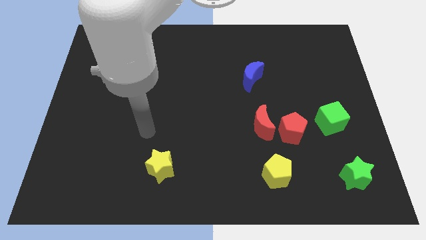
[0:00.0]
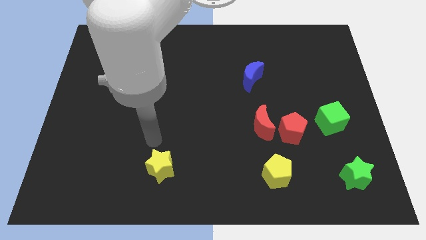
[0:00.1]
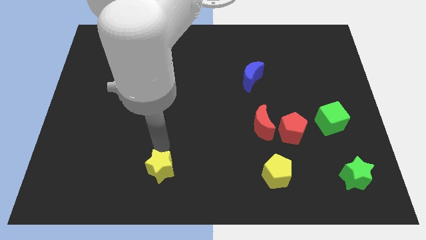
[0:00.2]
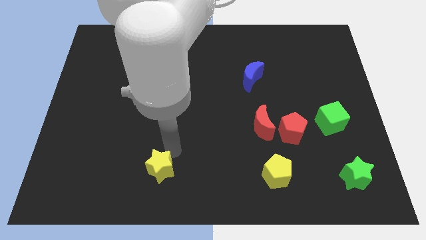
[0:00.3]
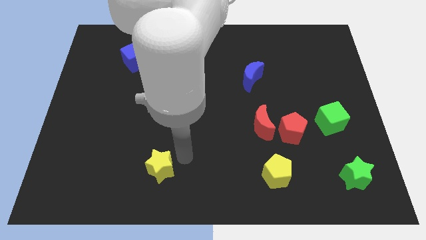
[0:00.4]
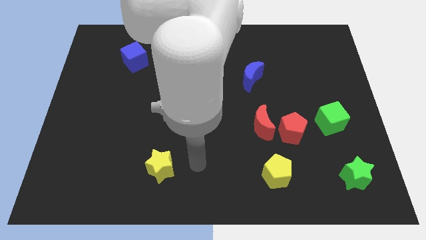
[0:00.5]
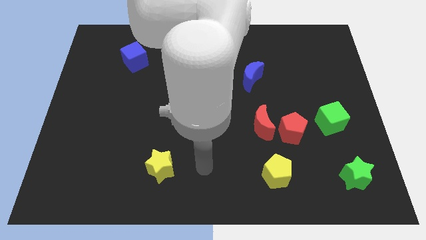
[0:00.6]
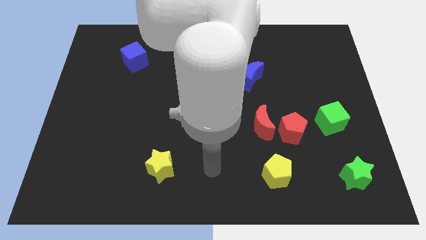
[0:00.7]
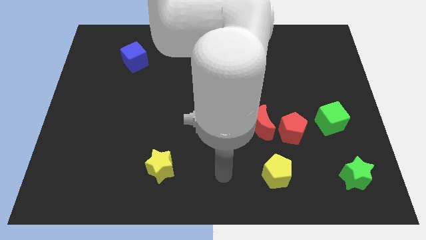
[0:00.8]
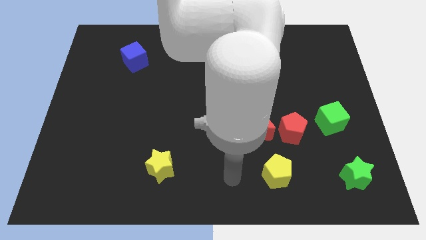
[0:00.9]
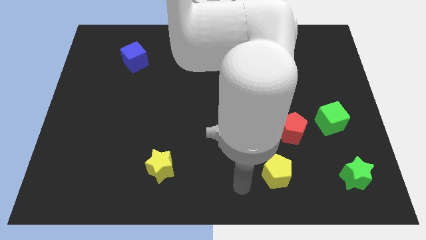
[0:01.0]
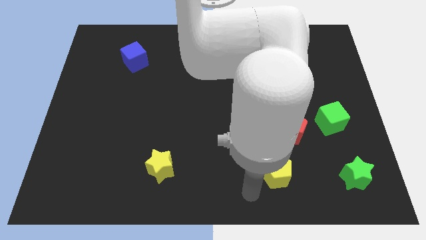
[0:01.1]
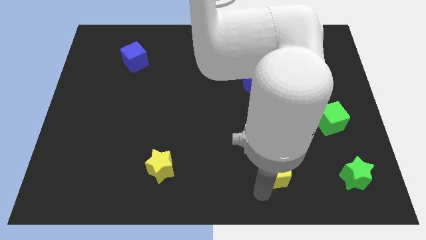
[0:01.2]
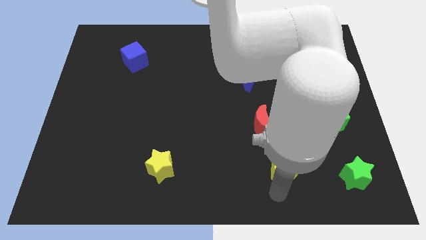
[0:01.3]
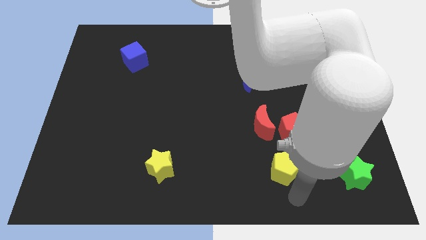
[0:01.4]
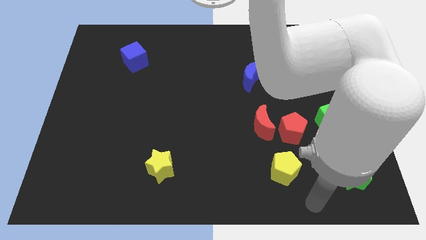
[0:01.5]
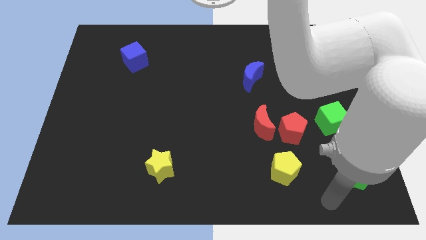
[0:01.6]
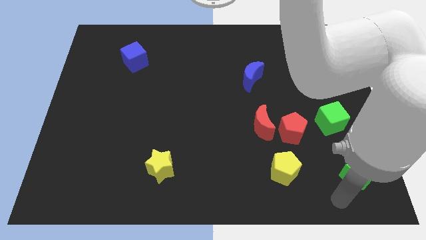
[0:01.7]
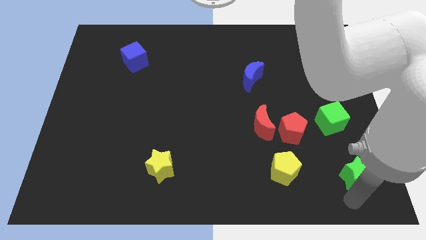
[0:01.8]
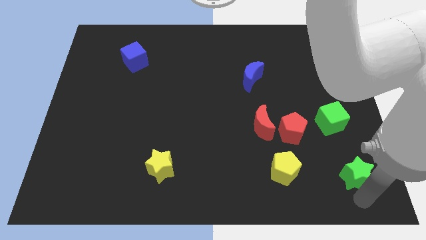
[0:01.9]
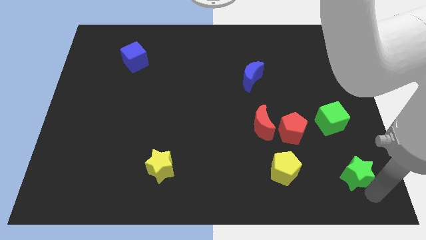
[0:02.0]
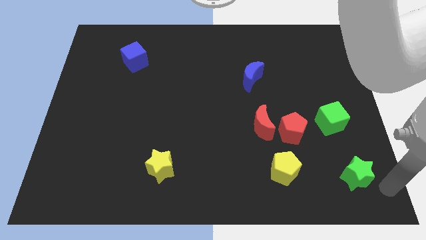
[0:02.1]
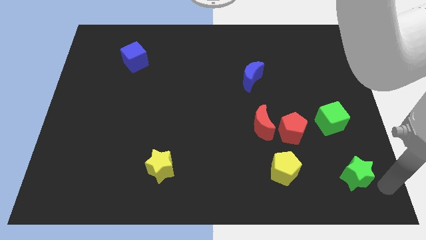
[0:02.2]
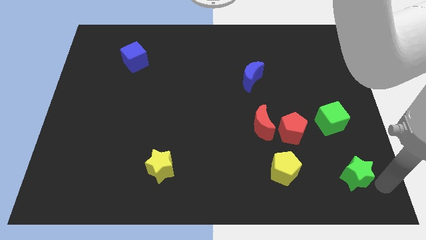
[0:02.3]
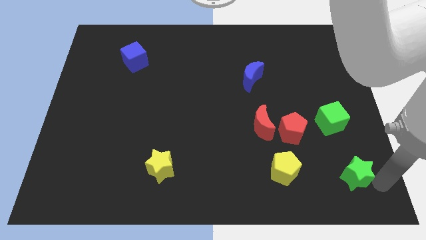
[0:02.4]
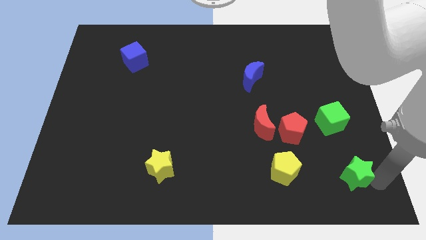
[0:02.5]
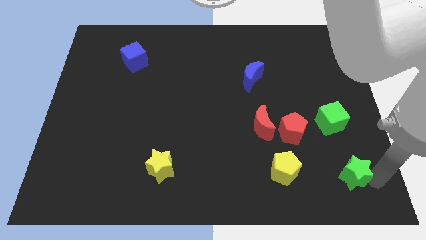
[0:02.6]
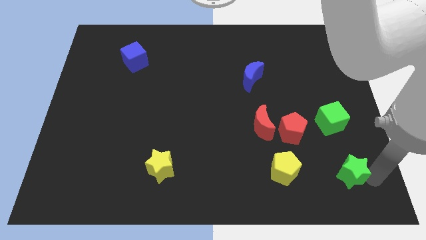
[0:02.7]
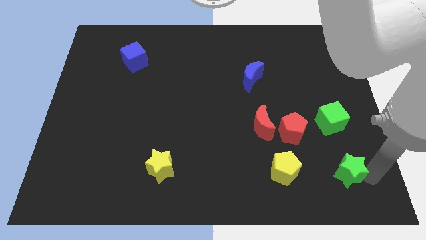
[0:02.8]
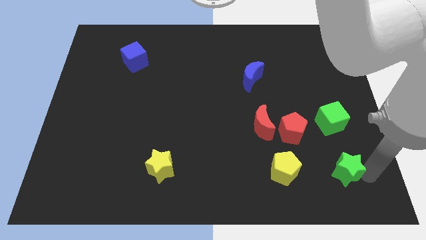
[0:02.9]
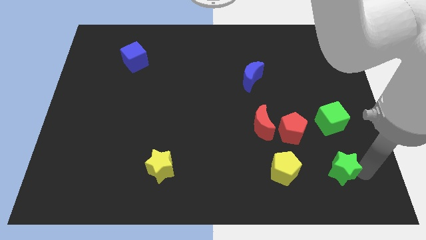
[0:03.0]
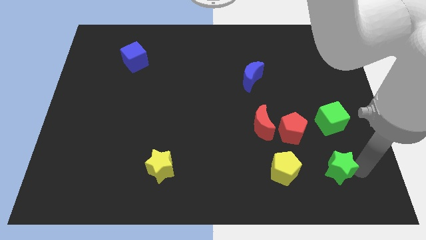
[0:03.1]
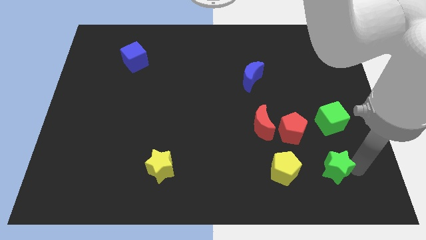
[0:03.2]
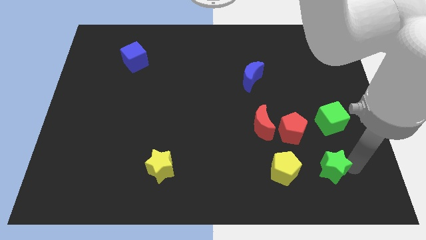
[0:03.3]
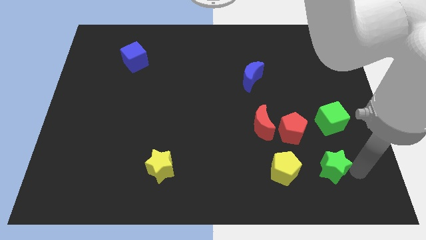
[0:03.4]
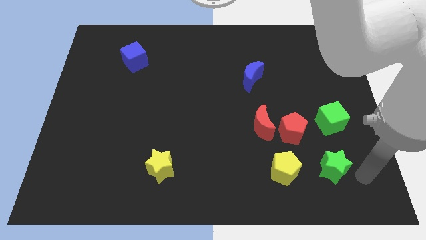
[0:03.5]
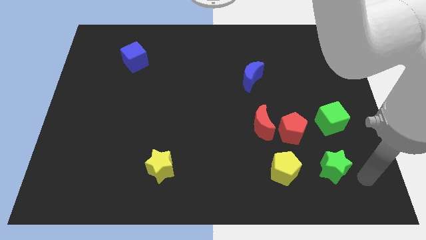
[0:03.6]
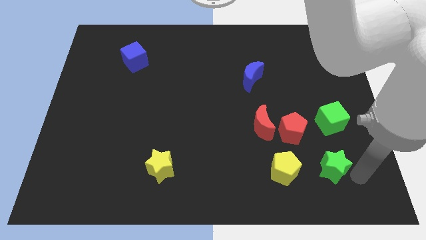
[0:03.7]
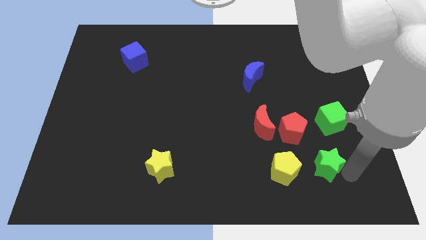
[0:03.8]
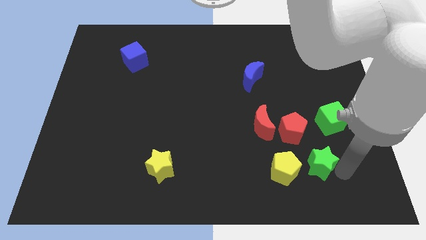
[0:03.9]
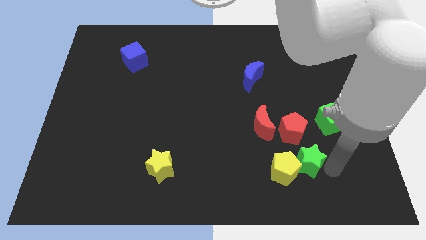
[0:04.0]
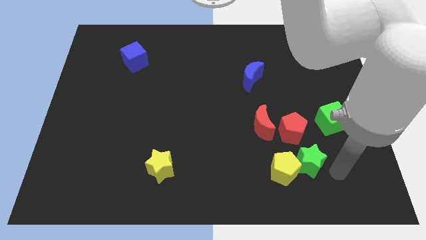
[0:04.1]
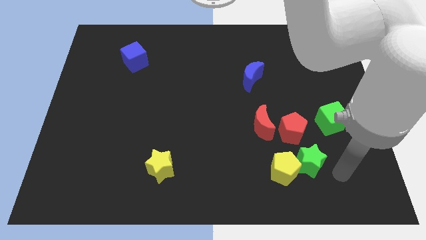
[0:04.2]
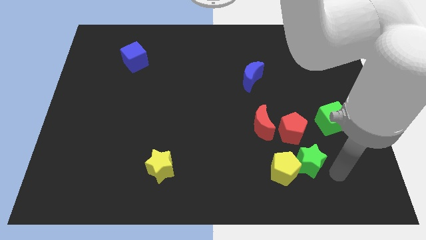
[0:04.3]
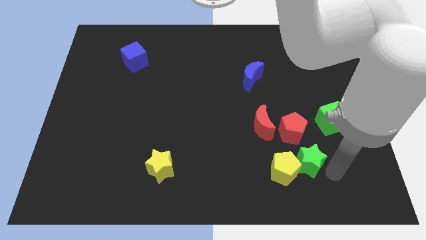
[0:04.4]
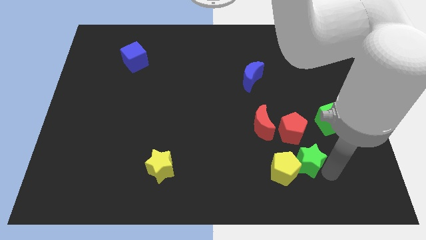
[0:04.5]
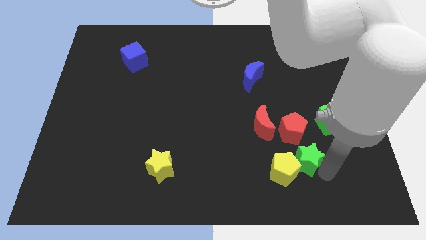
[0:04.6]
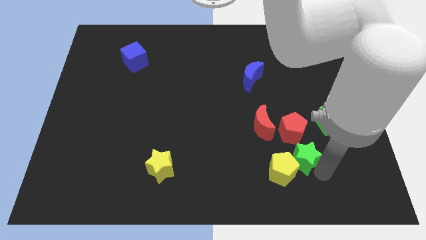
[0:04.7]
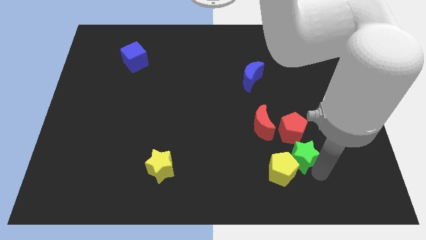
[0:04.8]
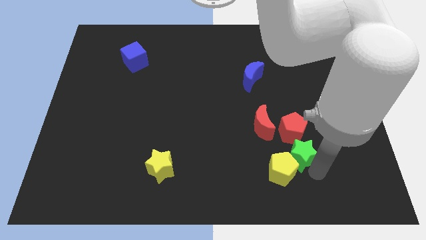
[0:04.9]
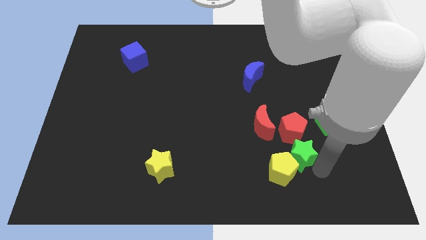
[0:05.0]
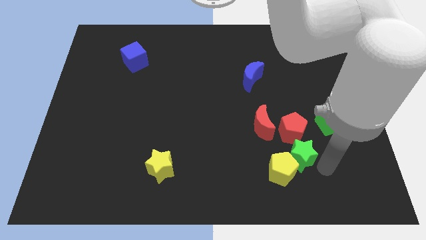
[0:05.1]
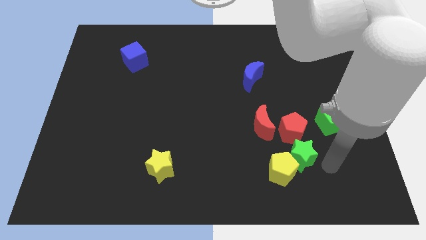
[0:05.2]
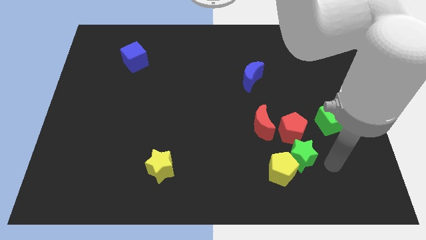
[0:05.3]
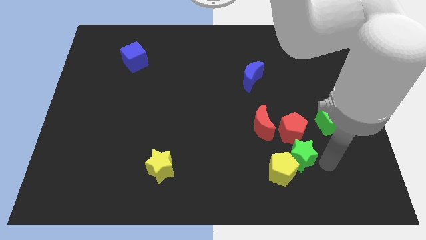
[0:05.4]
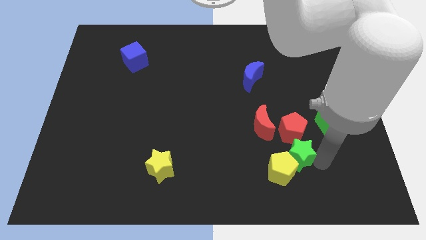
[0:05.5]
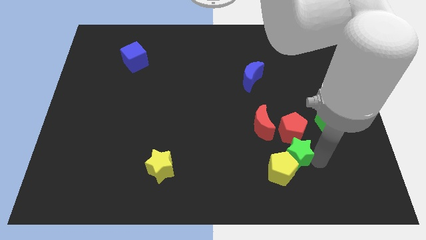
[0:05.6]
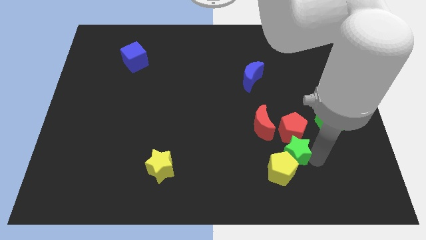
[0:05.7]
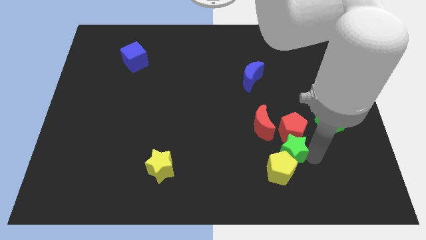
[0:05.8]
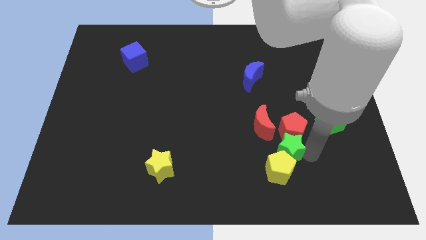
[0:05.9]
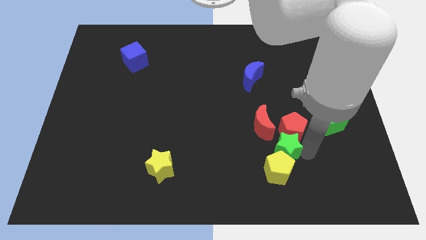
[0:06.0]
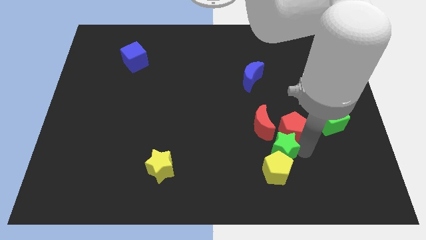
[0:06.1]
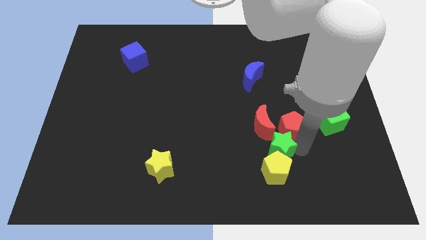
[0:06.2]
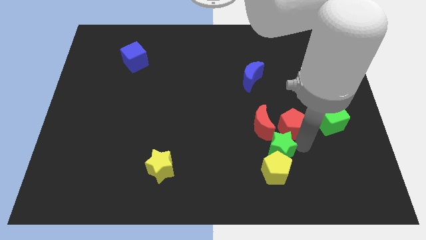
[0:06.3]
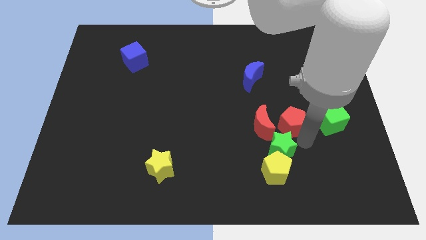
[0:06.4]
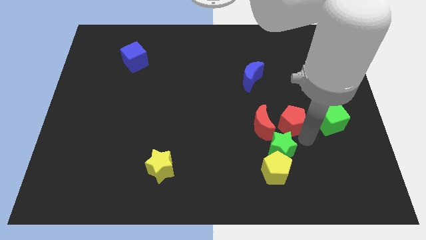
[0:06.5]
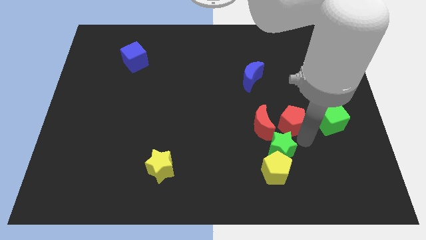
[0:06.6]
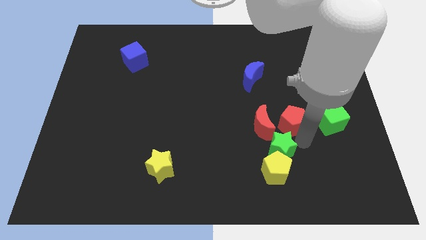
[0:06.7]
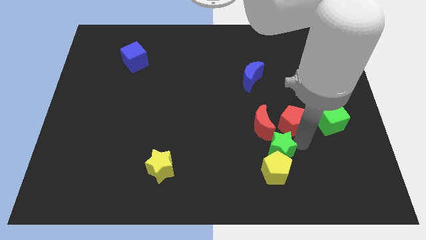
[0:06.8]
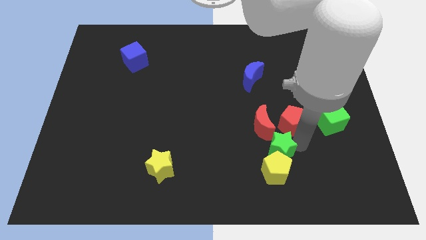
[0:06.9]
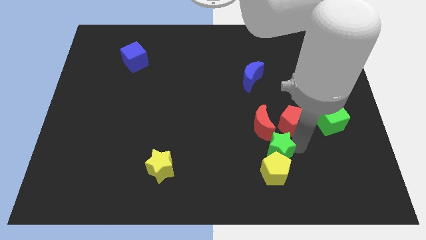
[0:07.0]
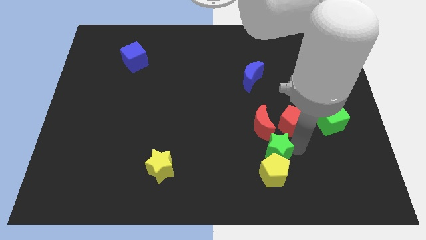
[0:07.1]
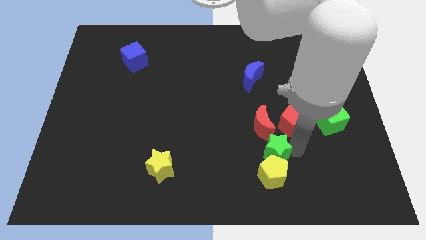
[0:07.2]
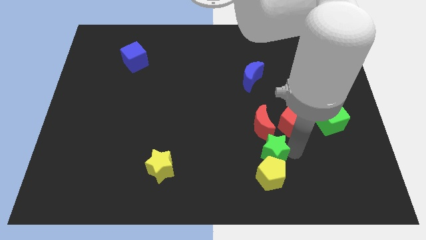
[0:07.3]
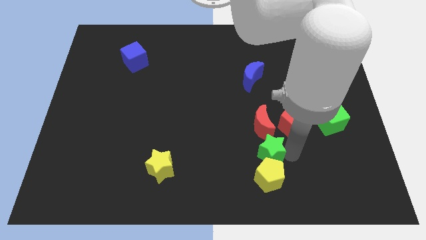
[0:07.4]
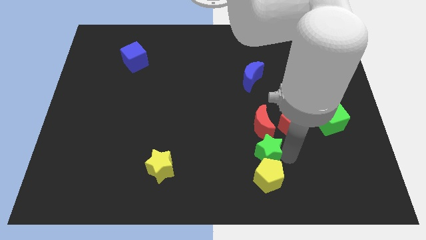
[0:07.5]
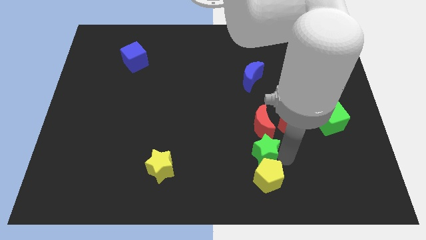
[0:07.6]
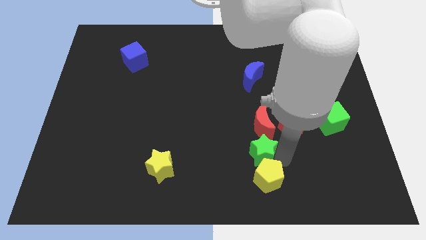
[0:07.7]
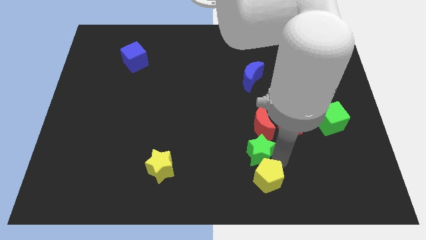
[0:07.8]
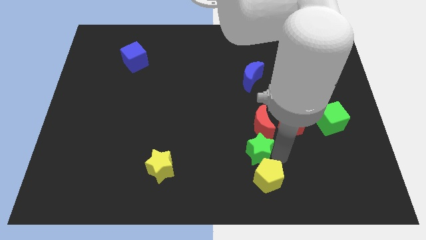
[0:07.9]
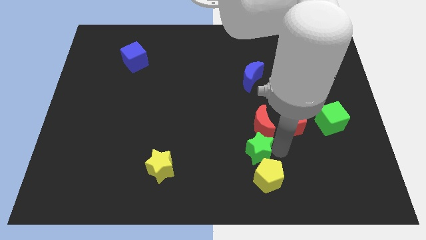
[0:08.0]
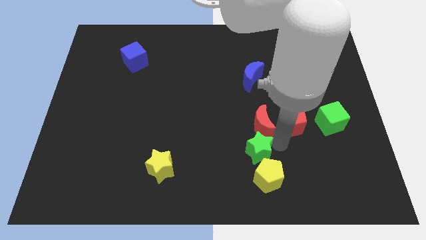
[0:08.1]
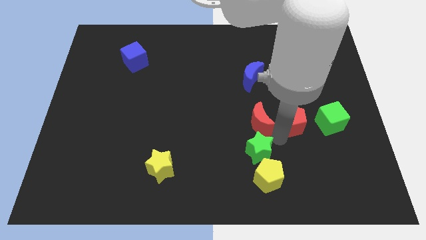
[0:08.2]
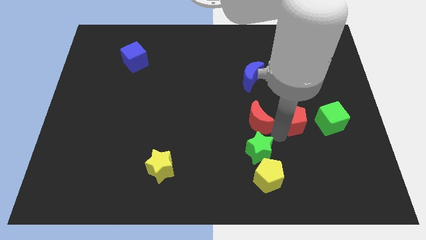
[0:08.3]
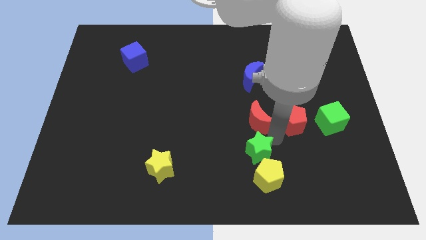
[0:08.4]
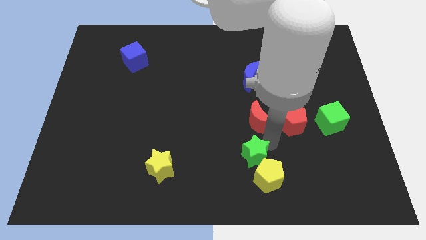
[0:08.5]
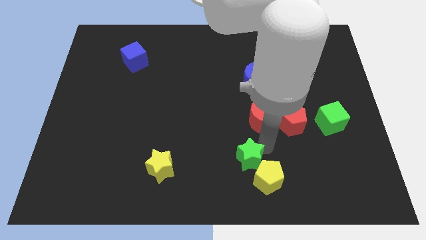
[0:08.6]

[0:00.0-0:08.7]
slide the green star to the left
